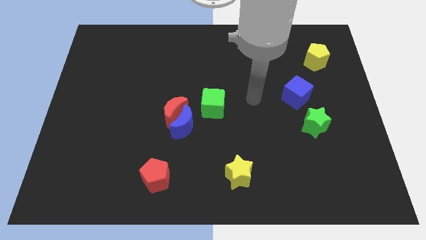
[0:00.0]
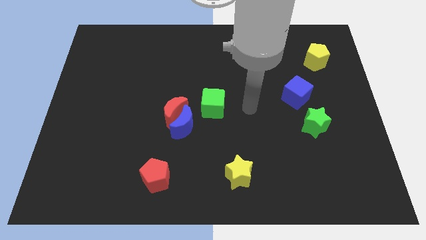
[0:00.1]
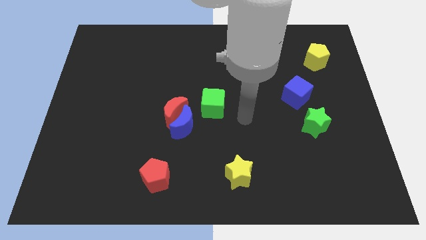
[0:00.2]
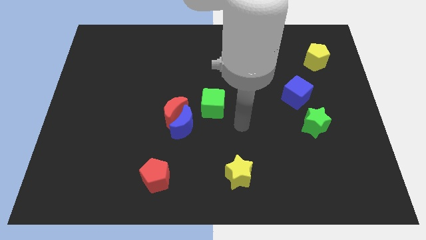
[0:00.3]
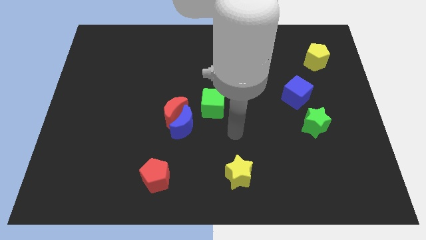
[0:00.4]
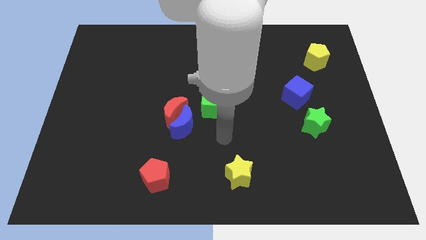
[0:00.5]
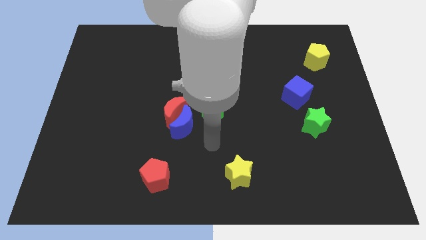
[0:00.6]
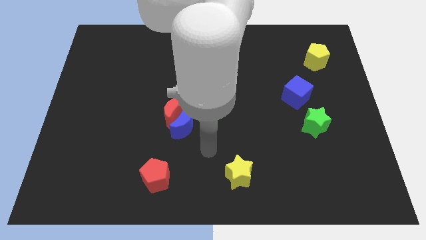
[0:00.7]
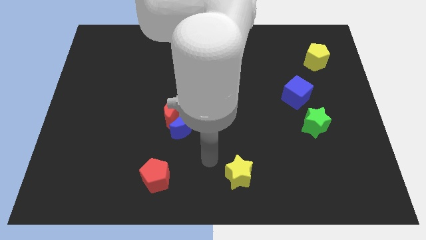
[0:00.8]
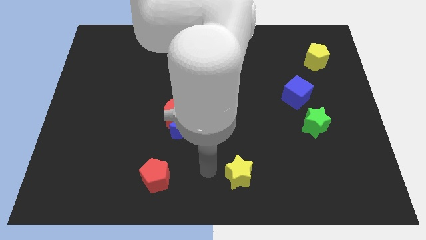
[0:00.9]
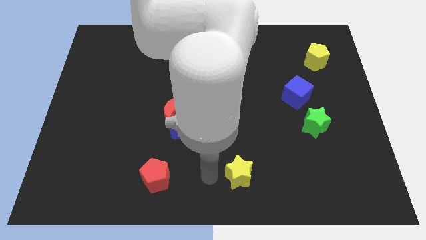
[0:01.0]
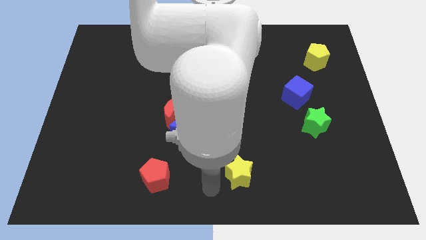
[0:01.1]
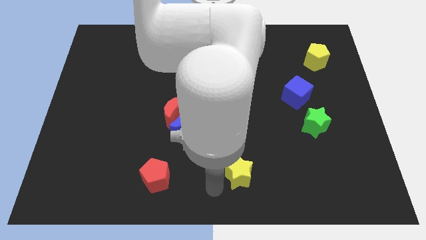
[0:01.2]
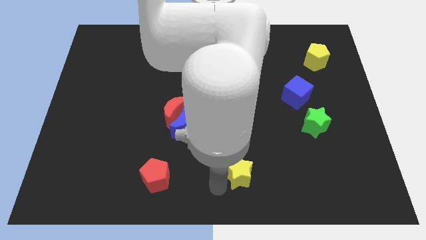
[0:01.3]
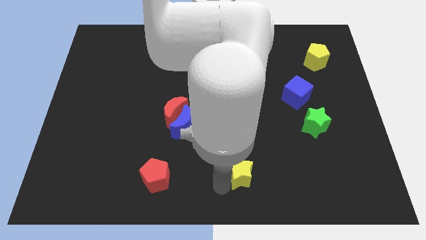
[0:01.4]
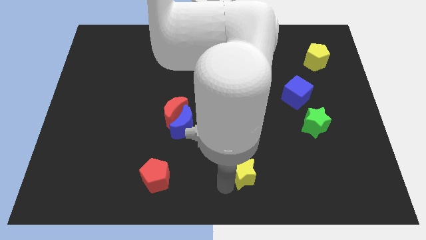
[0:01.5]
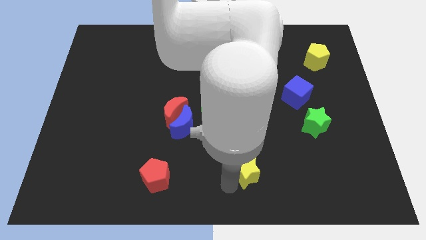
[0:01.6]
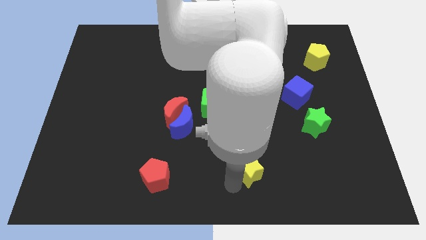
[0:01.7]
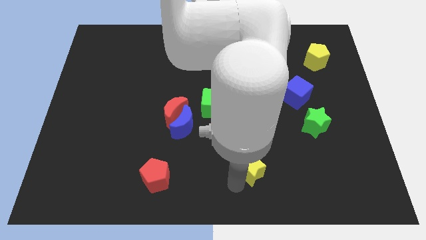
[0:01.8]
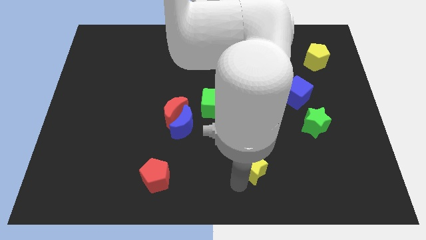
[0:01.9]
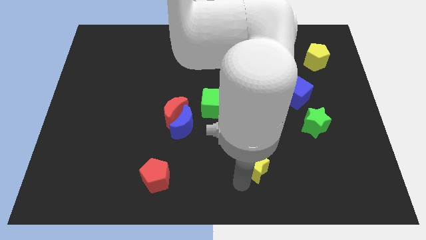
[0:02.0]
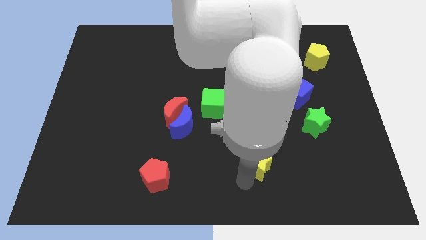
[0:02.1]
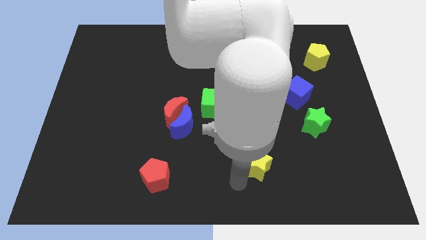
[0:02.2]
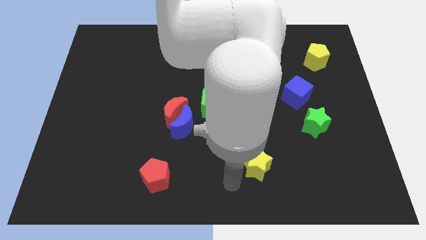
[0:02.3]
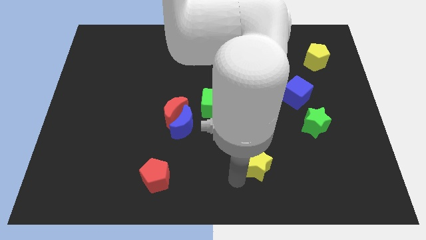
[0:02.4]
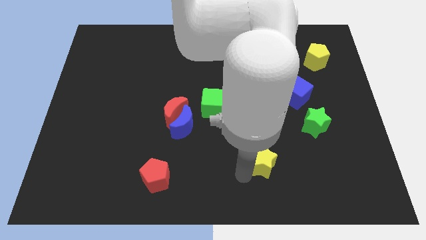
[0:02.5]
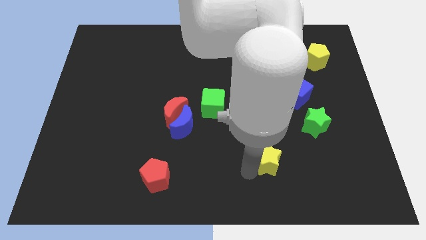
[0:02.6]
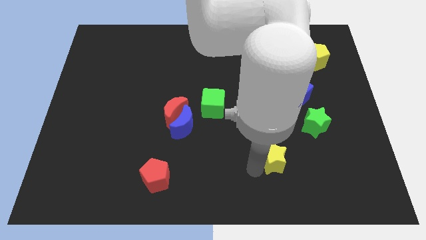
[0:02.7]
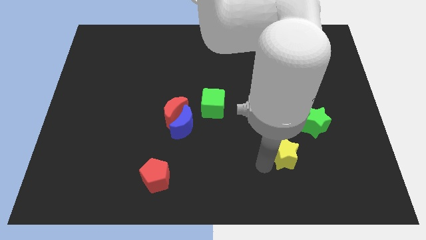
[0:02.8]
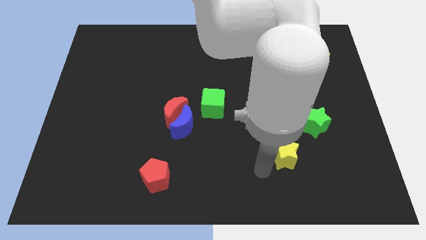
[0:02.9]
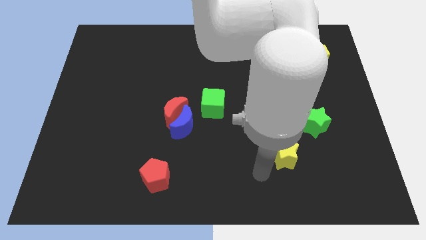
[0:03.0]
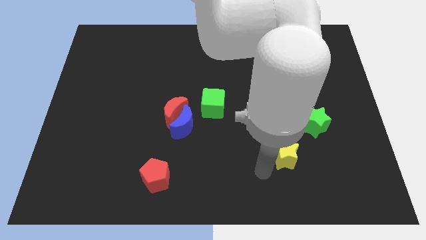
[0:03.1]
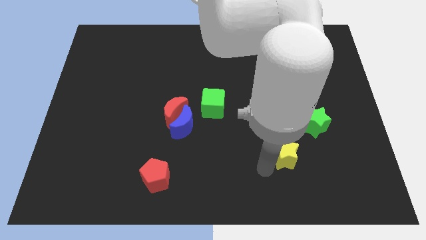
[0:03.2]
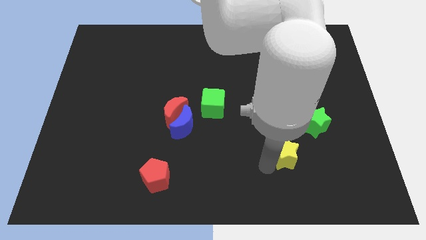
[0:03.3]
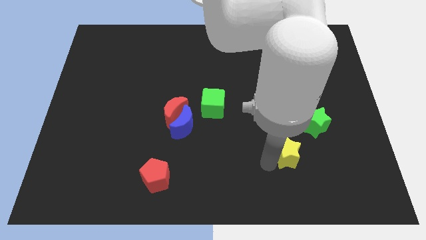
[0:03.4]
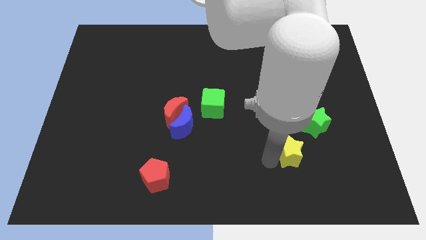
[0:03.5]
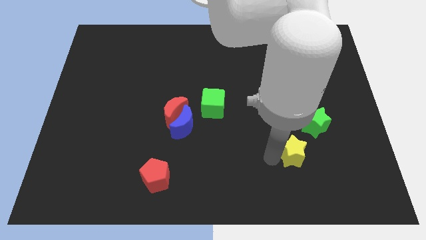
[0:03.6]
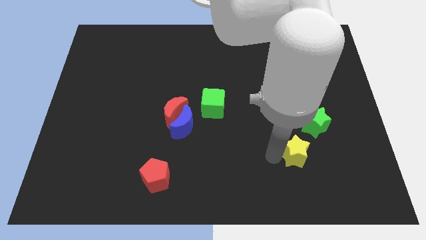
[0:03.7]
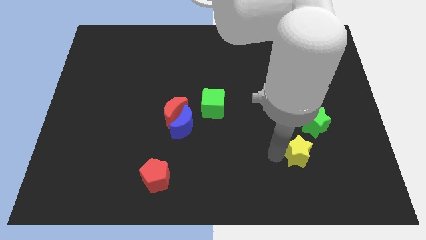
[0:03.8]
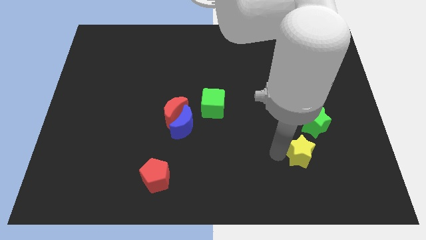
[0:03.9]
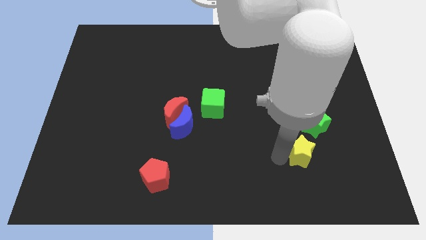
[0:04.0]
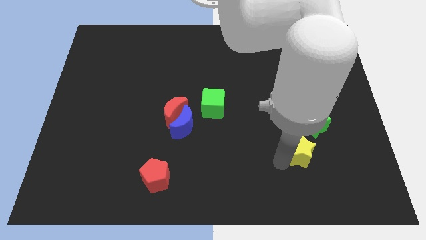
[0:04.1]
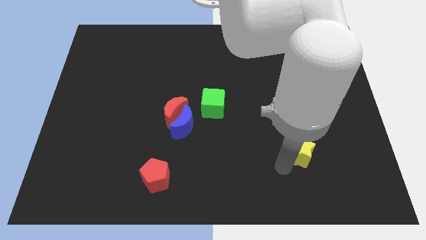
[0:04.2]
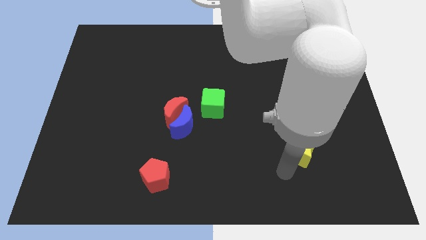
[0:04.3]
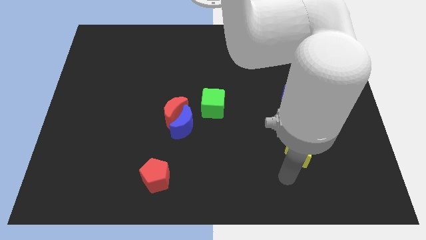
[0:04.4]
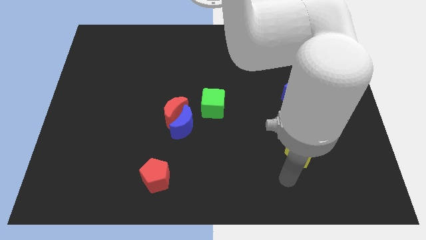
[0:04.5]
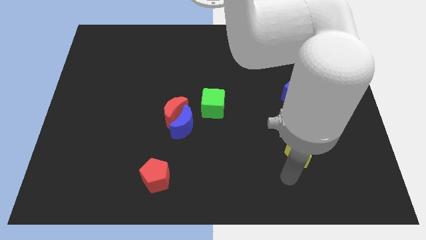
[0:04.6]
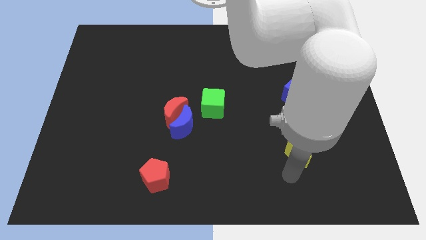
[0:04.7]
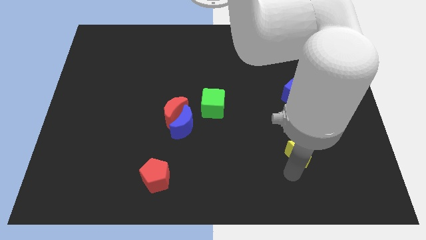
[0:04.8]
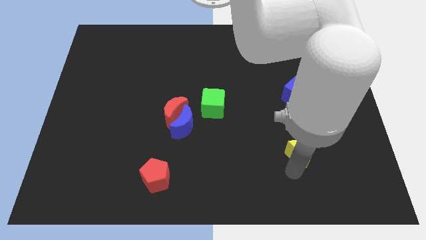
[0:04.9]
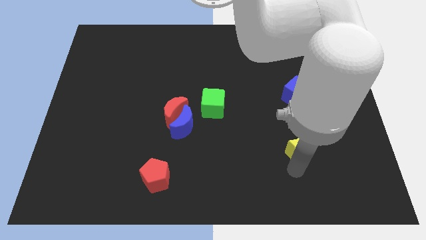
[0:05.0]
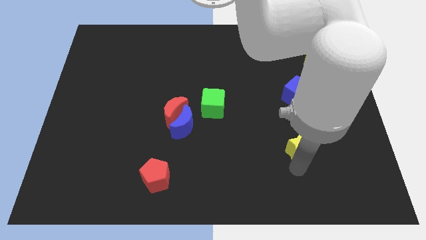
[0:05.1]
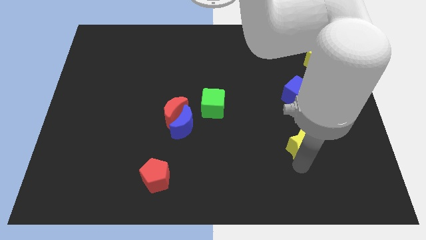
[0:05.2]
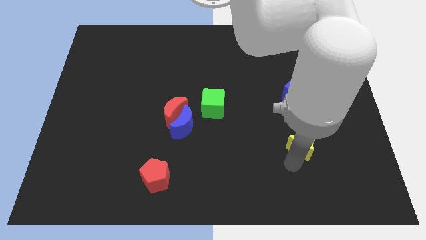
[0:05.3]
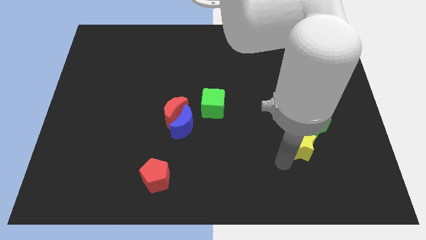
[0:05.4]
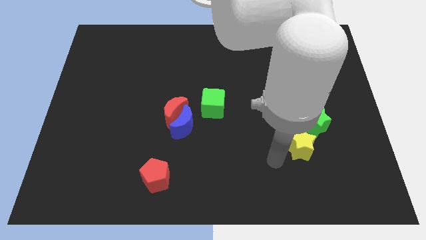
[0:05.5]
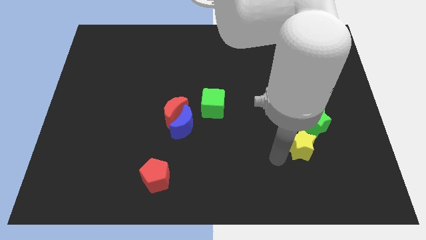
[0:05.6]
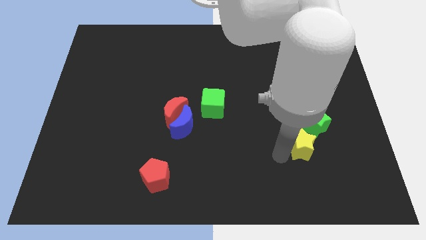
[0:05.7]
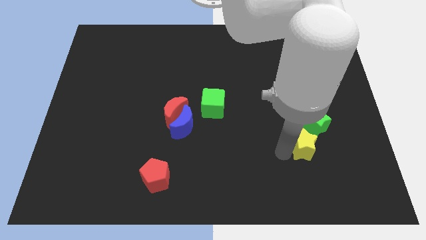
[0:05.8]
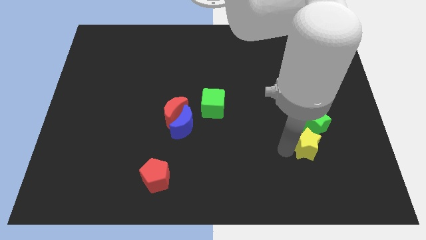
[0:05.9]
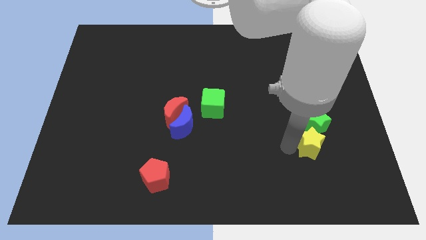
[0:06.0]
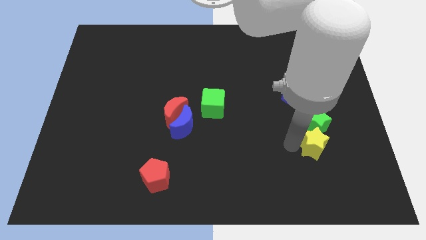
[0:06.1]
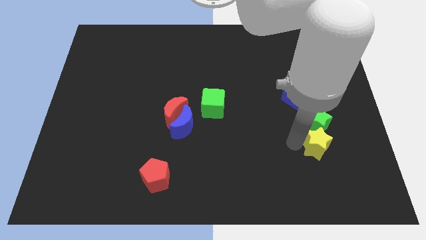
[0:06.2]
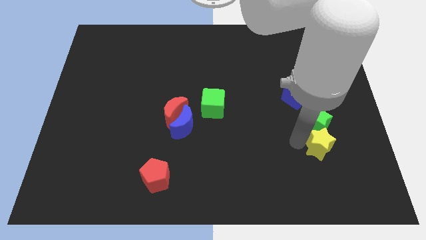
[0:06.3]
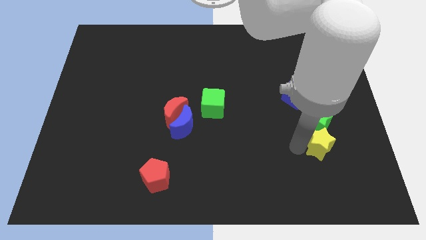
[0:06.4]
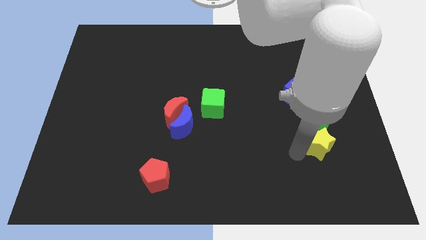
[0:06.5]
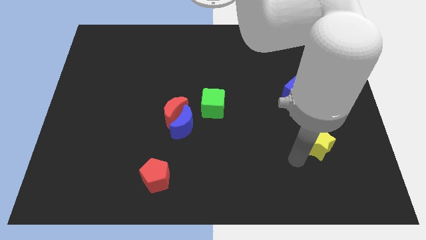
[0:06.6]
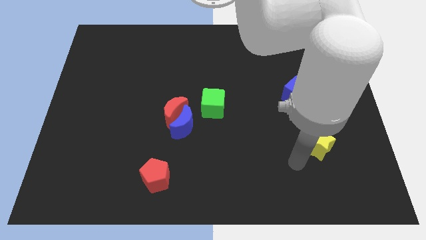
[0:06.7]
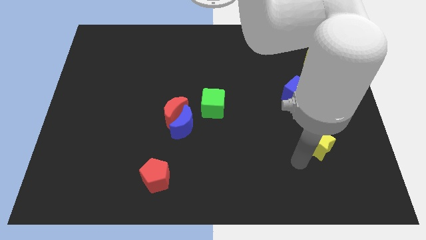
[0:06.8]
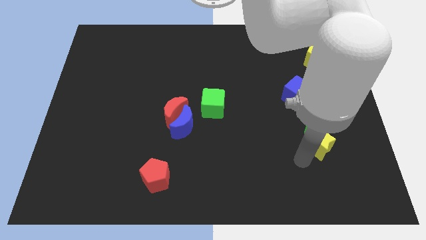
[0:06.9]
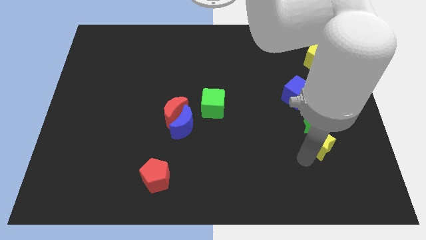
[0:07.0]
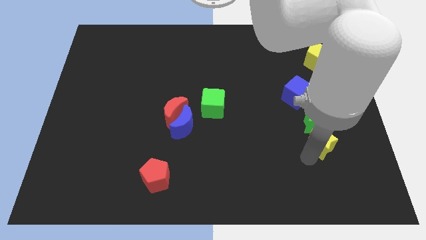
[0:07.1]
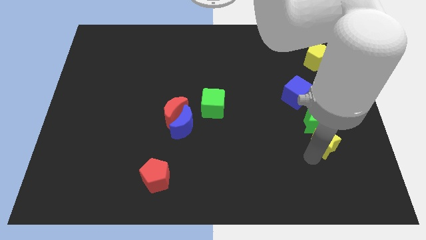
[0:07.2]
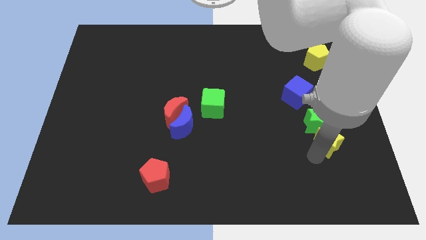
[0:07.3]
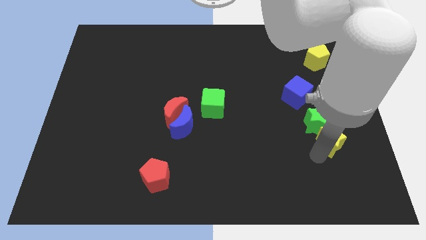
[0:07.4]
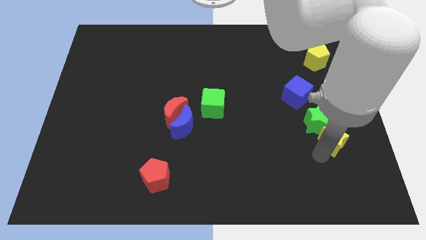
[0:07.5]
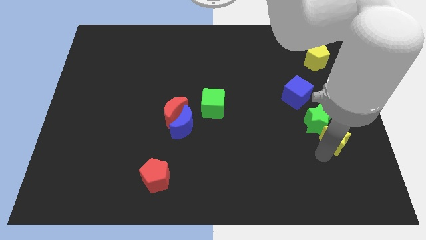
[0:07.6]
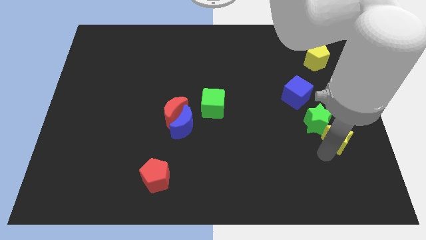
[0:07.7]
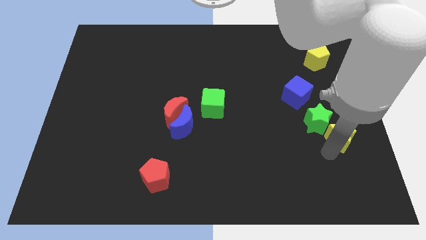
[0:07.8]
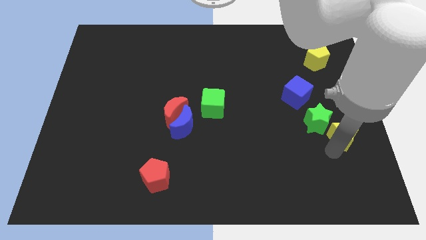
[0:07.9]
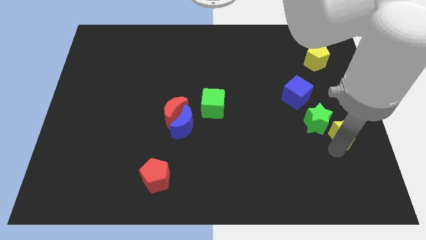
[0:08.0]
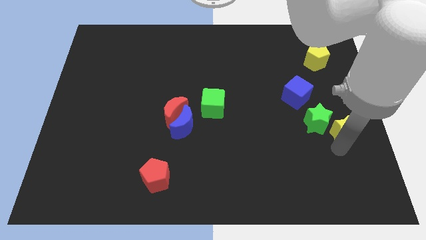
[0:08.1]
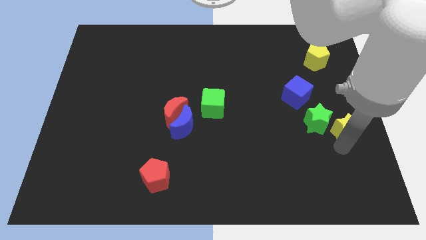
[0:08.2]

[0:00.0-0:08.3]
move the yellow star upwards and then right
